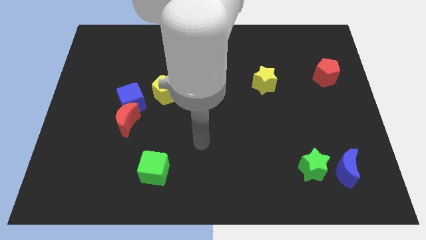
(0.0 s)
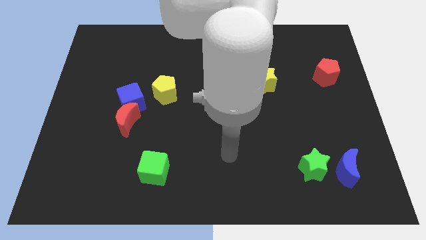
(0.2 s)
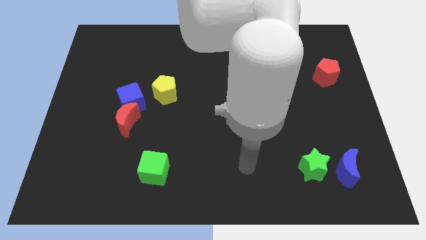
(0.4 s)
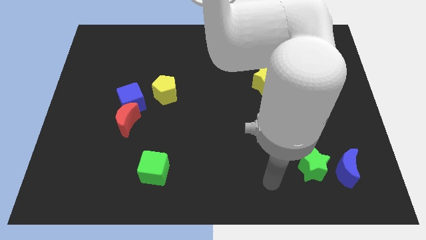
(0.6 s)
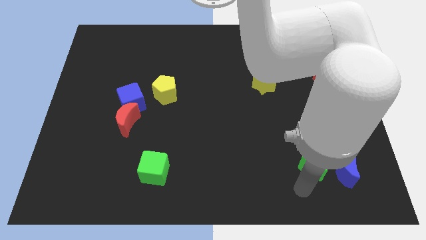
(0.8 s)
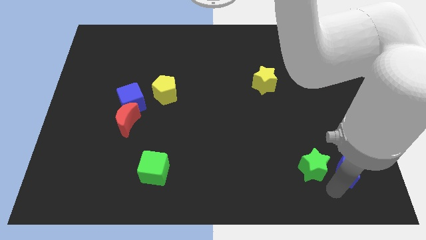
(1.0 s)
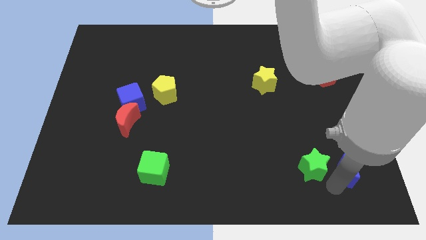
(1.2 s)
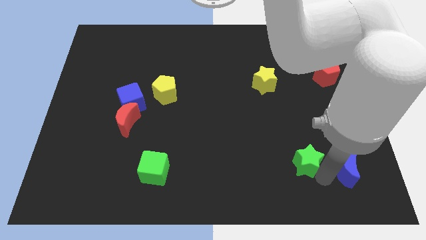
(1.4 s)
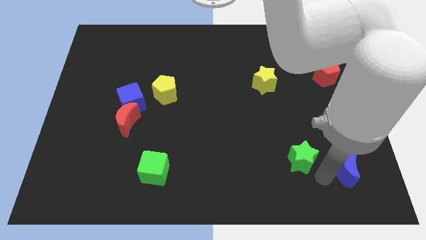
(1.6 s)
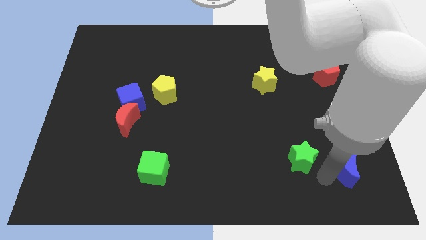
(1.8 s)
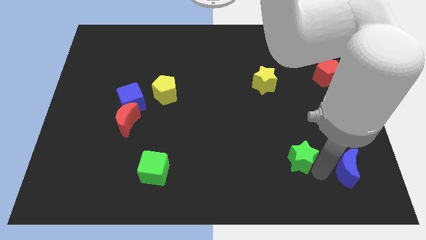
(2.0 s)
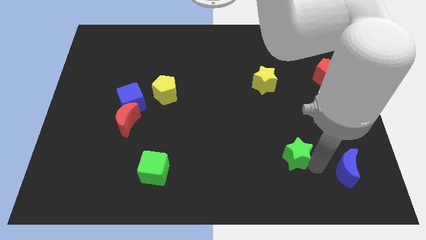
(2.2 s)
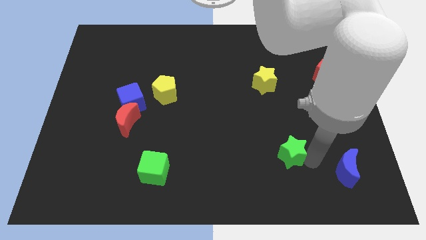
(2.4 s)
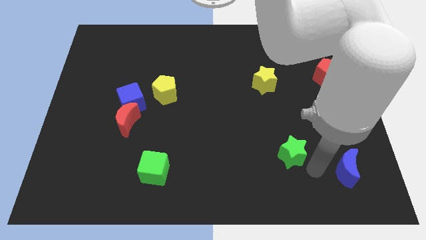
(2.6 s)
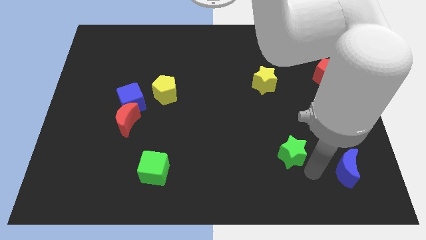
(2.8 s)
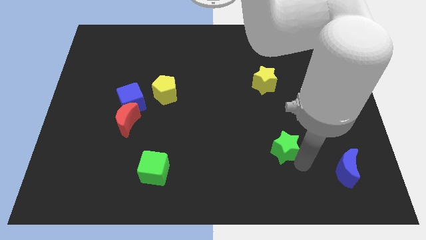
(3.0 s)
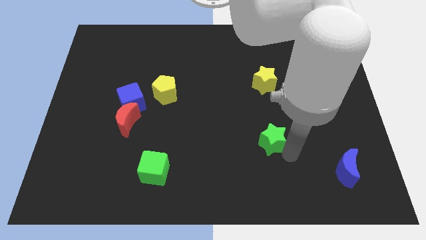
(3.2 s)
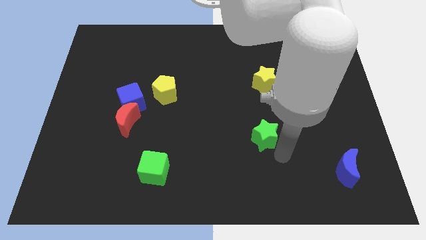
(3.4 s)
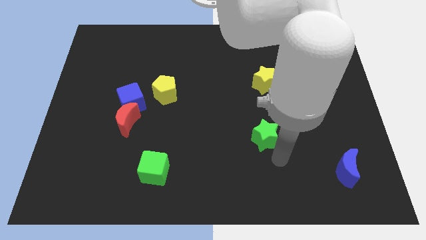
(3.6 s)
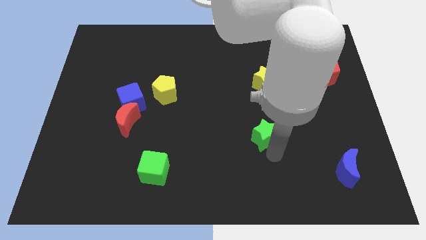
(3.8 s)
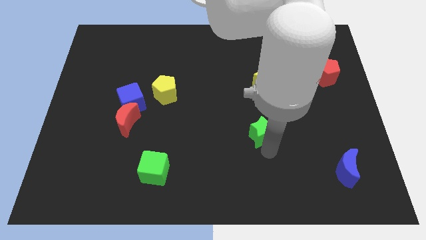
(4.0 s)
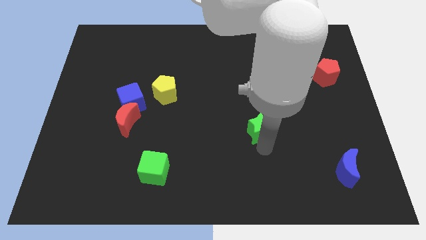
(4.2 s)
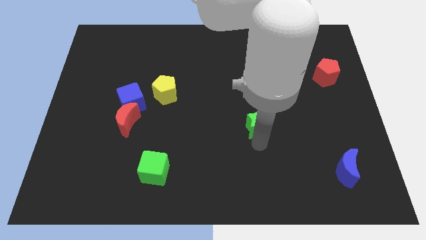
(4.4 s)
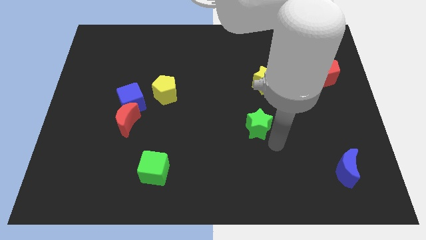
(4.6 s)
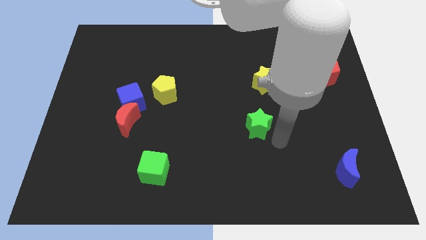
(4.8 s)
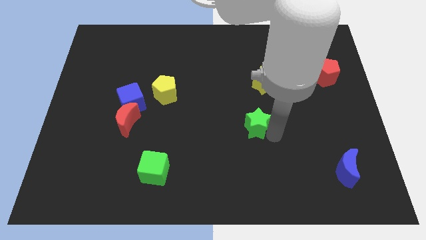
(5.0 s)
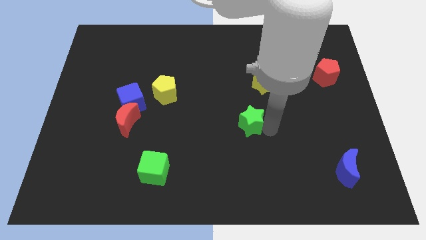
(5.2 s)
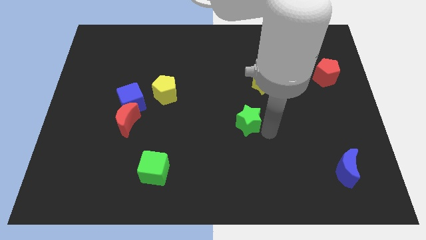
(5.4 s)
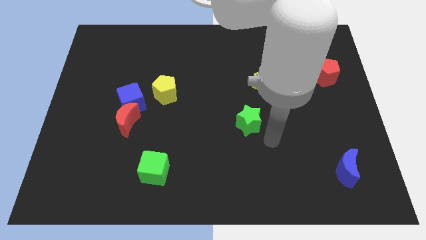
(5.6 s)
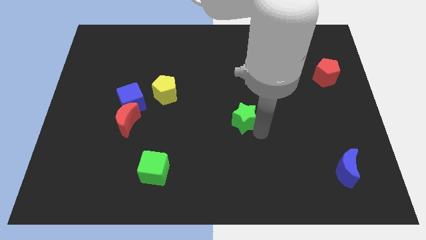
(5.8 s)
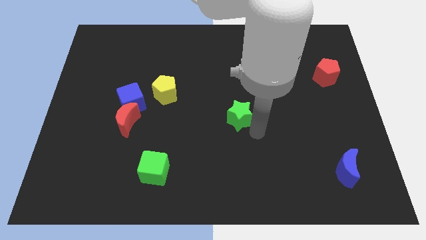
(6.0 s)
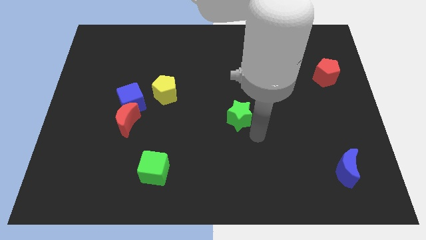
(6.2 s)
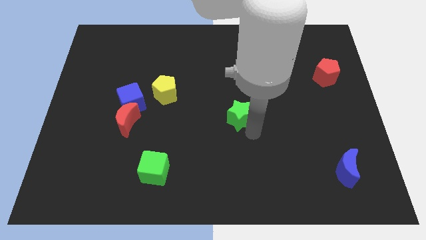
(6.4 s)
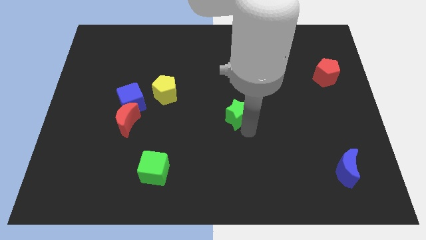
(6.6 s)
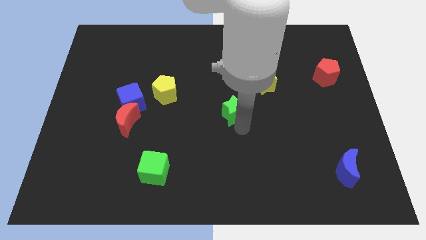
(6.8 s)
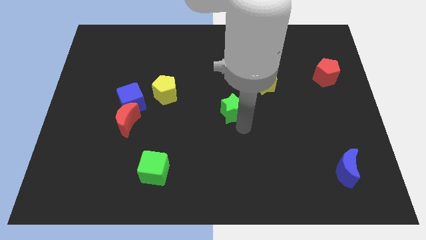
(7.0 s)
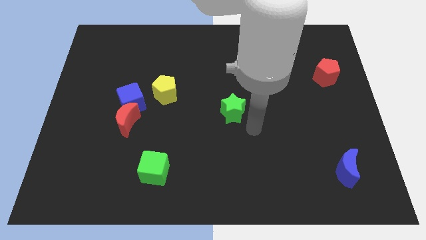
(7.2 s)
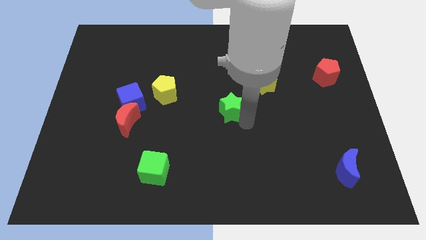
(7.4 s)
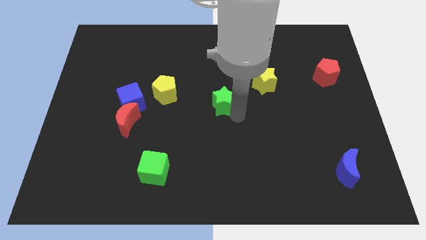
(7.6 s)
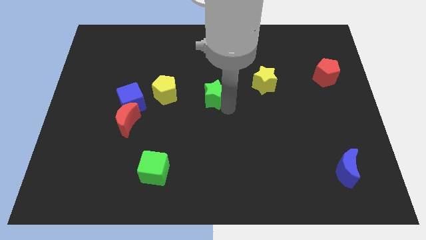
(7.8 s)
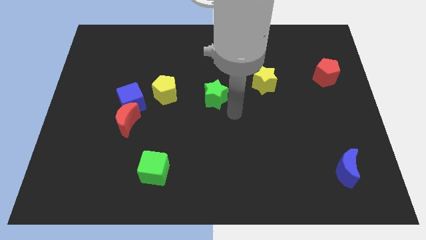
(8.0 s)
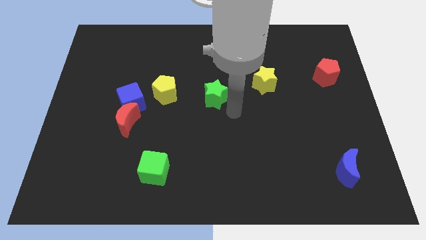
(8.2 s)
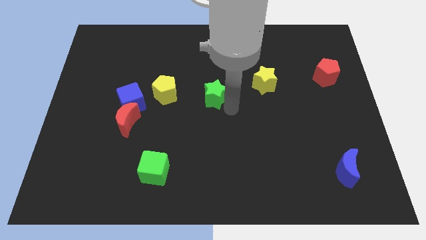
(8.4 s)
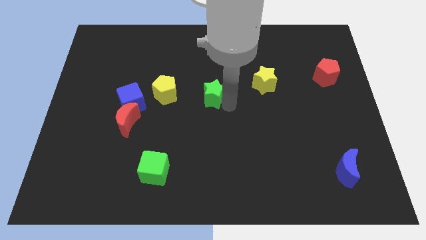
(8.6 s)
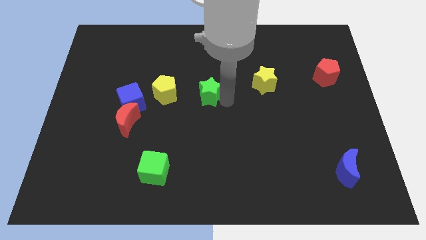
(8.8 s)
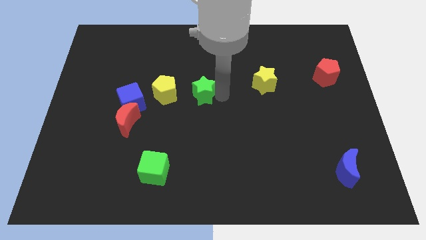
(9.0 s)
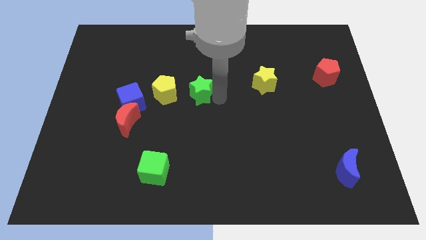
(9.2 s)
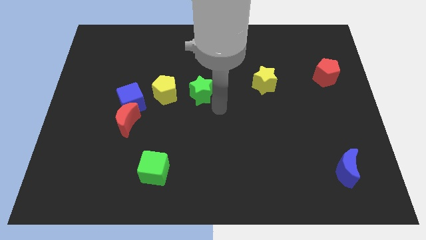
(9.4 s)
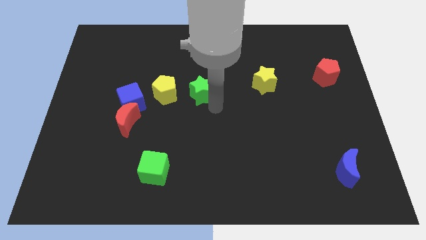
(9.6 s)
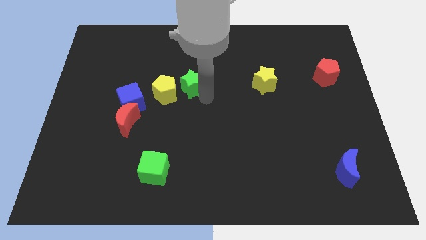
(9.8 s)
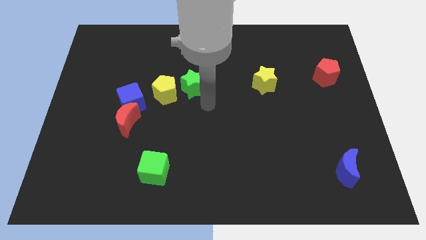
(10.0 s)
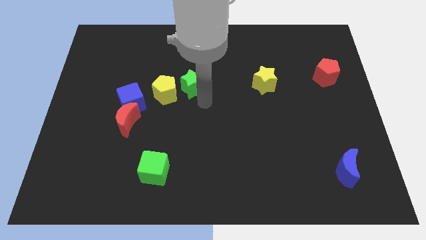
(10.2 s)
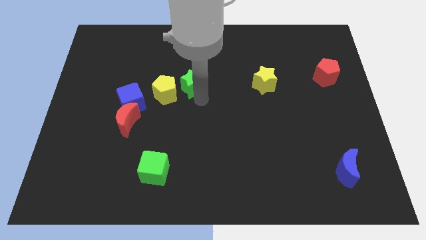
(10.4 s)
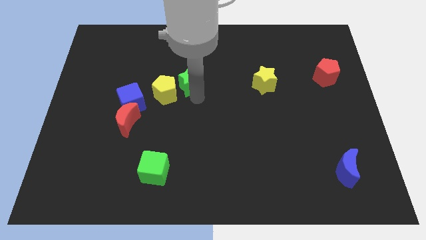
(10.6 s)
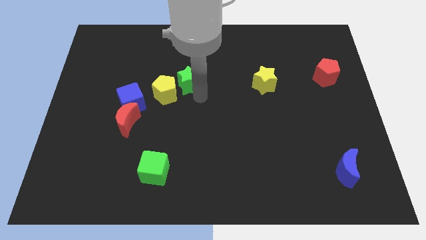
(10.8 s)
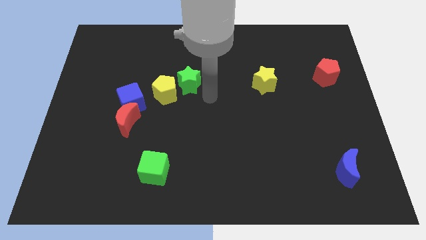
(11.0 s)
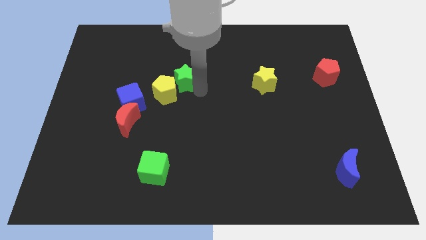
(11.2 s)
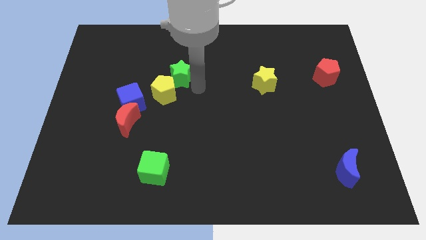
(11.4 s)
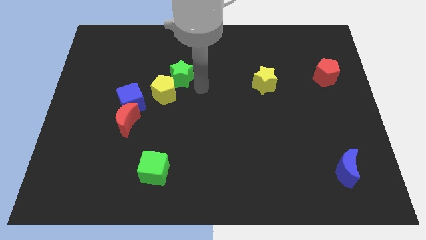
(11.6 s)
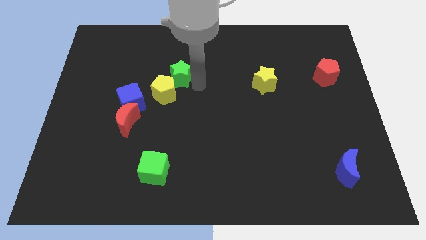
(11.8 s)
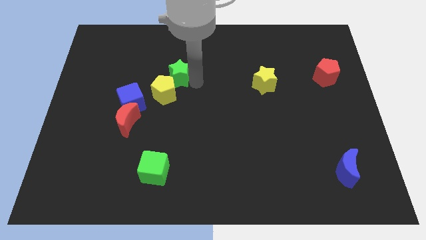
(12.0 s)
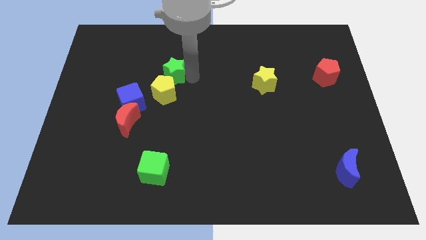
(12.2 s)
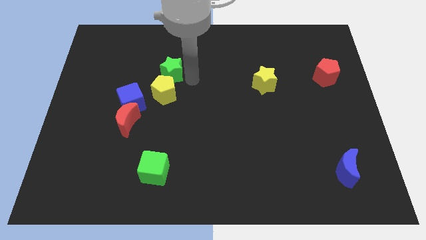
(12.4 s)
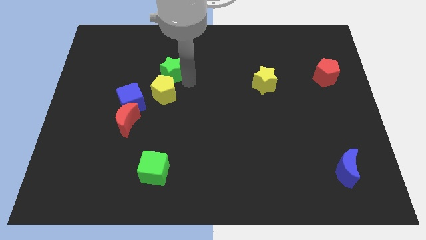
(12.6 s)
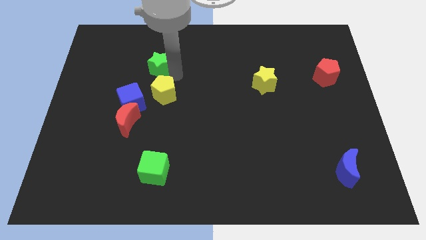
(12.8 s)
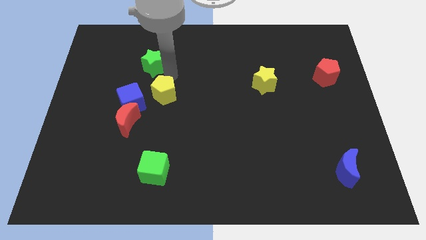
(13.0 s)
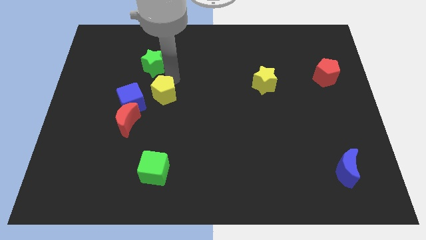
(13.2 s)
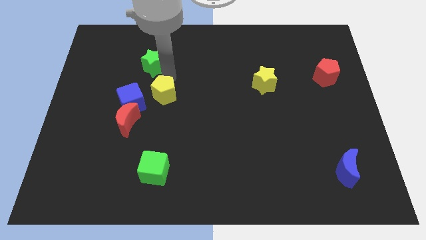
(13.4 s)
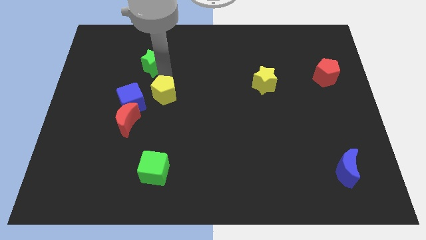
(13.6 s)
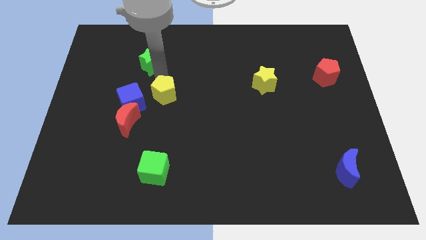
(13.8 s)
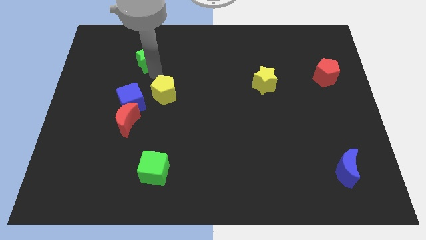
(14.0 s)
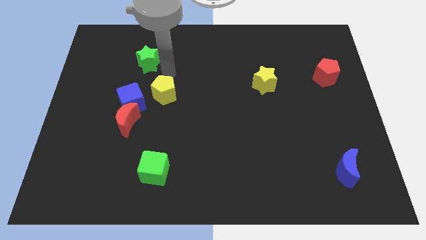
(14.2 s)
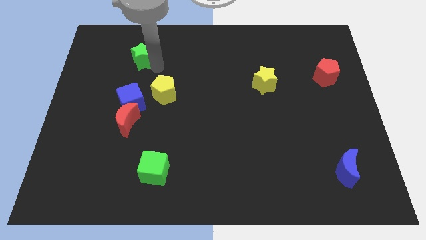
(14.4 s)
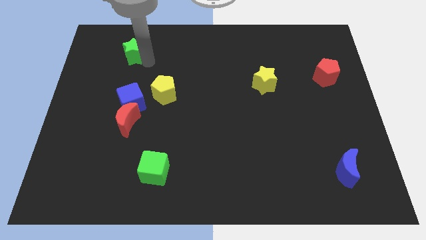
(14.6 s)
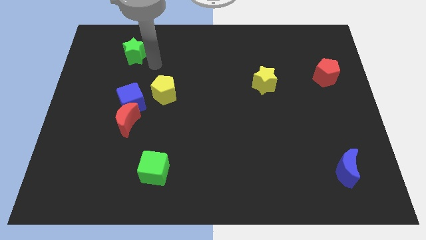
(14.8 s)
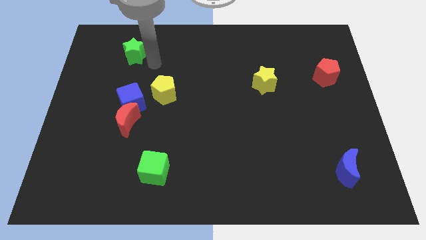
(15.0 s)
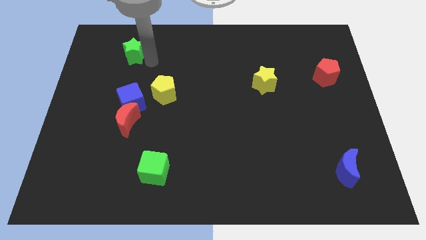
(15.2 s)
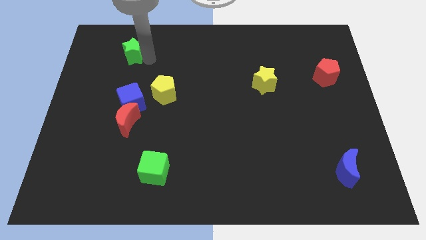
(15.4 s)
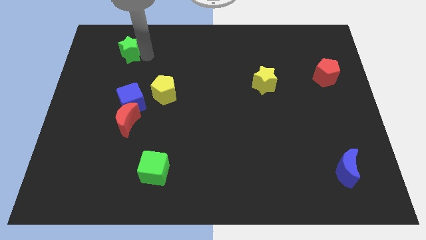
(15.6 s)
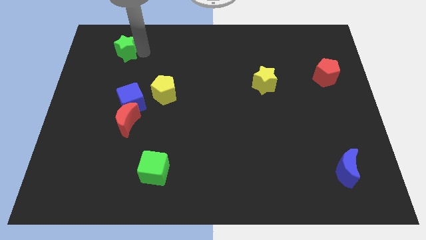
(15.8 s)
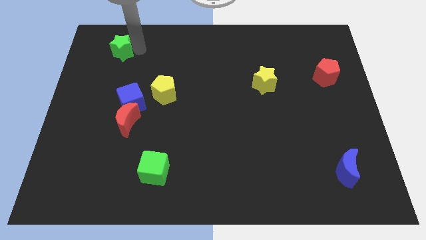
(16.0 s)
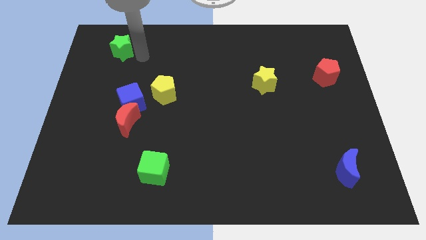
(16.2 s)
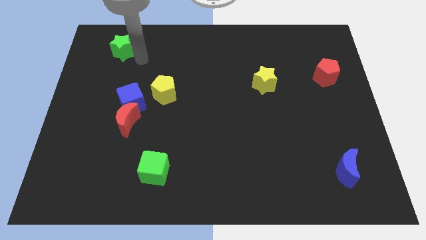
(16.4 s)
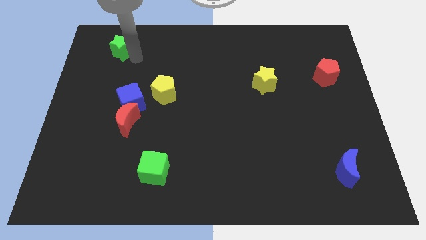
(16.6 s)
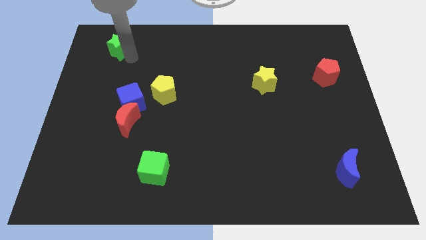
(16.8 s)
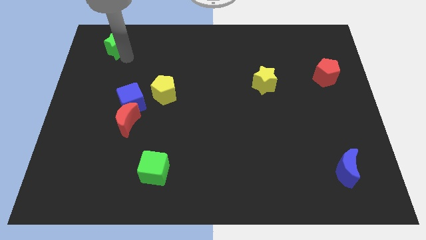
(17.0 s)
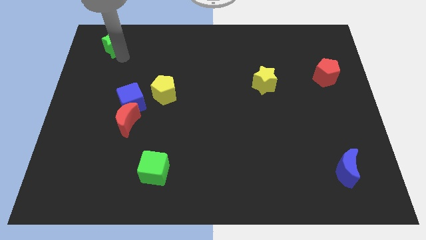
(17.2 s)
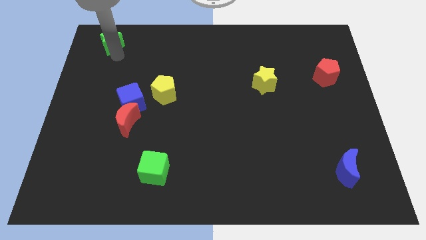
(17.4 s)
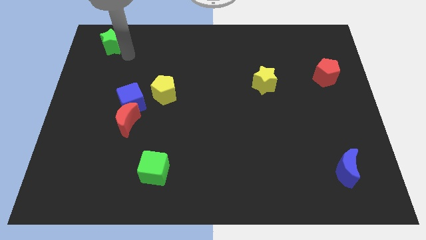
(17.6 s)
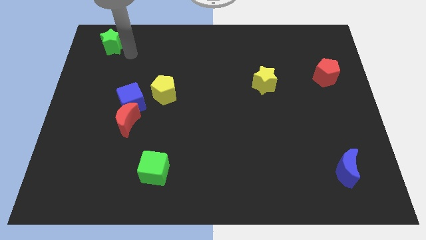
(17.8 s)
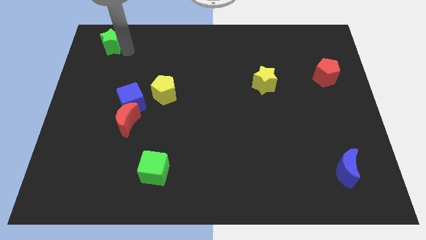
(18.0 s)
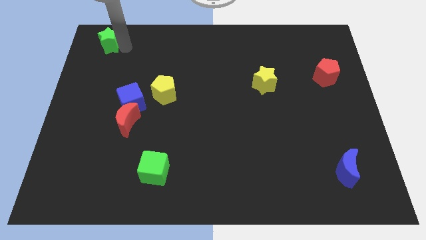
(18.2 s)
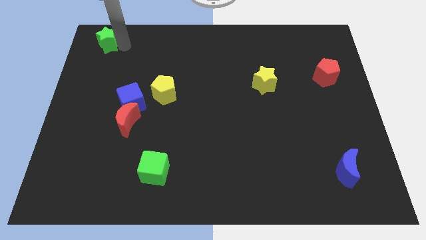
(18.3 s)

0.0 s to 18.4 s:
put the green star to the upper left corner
